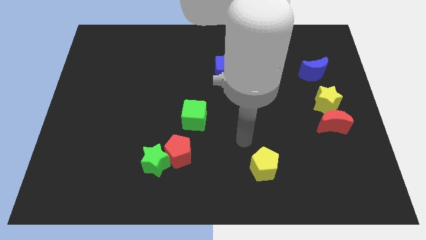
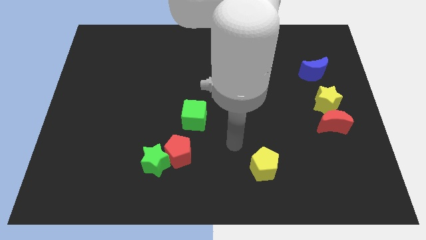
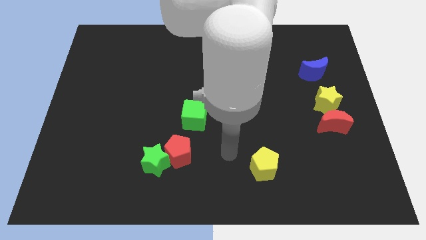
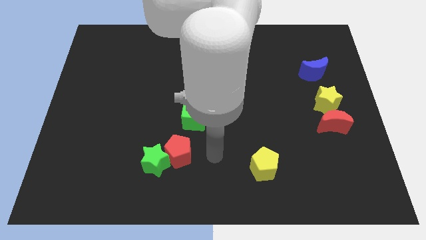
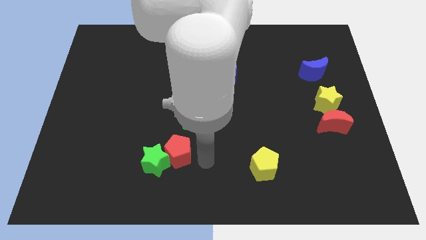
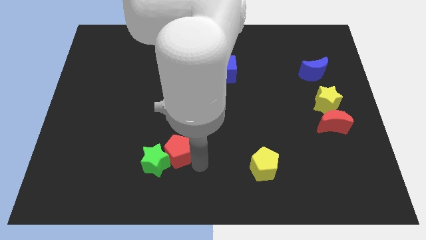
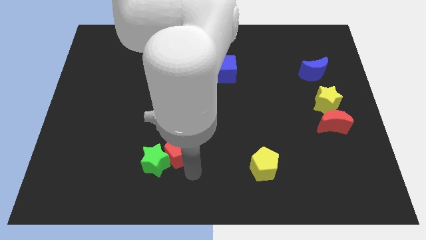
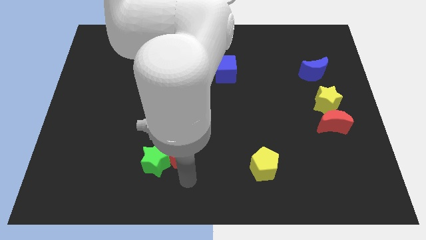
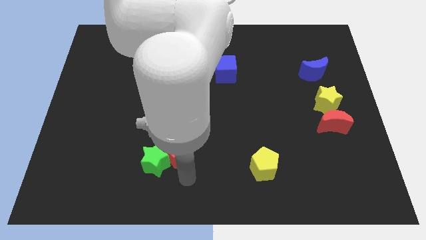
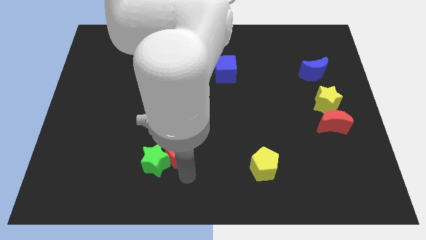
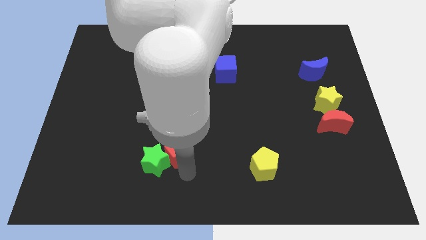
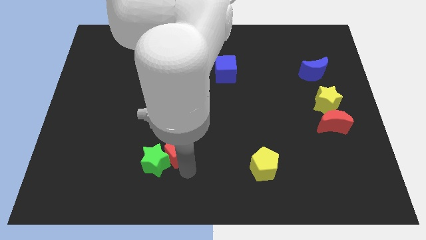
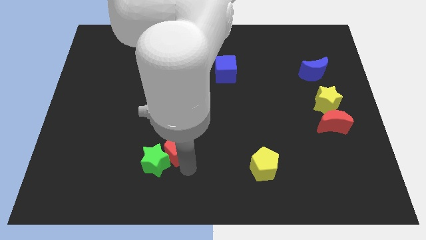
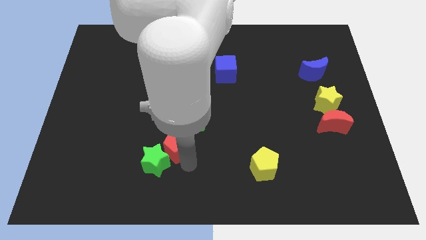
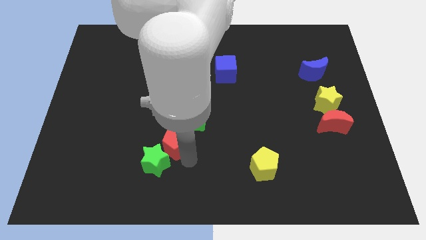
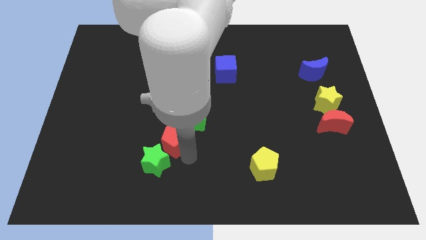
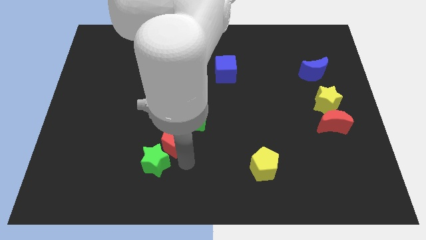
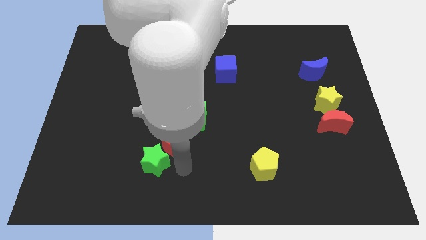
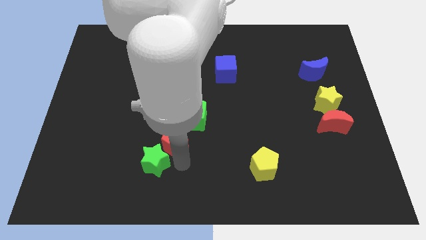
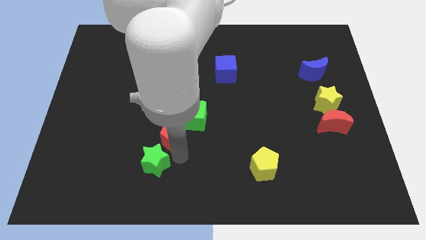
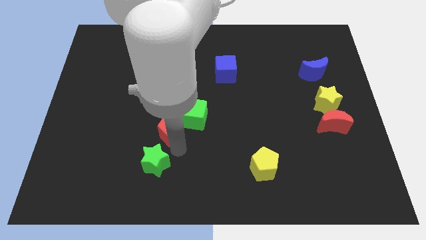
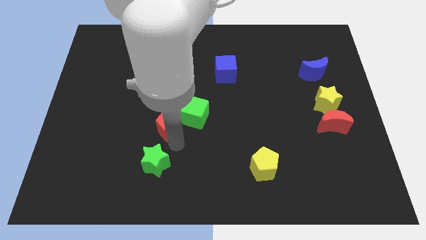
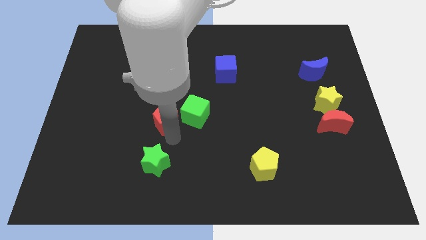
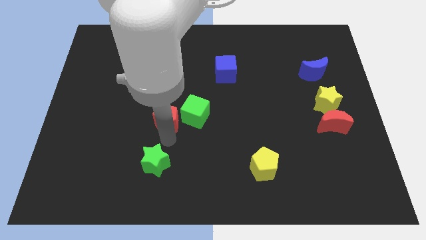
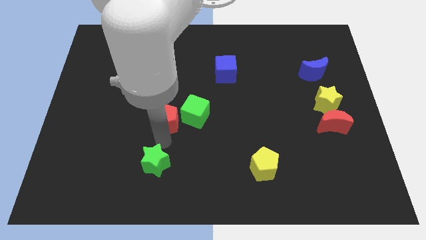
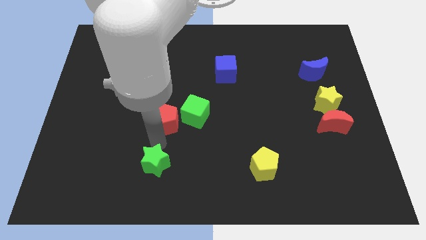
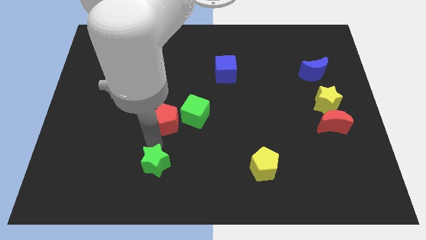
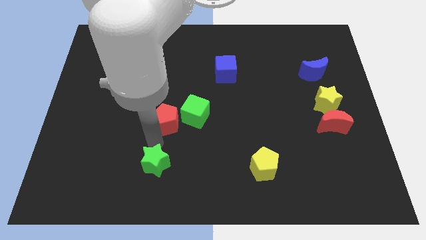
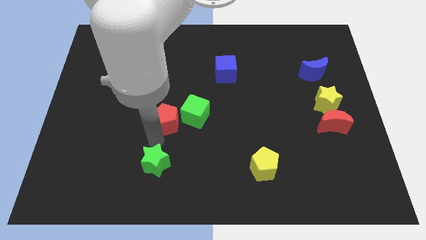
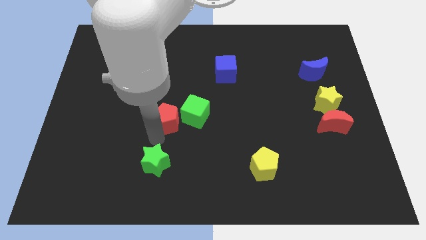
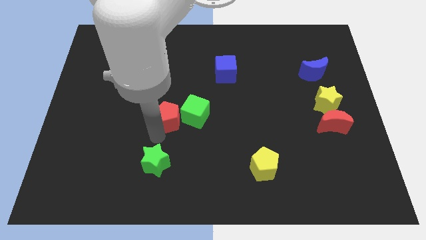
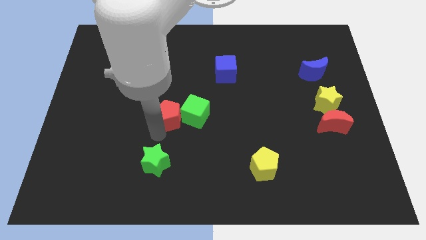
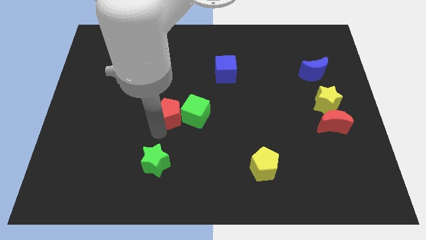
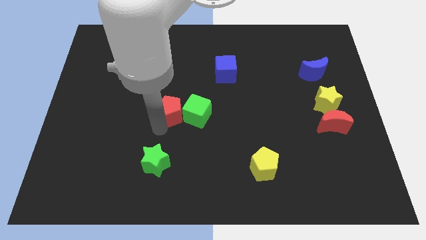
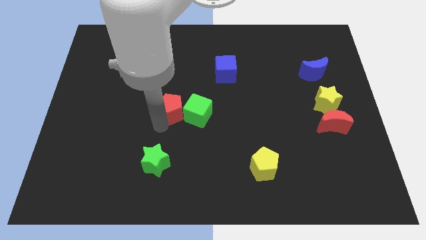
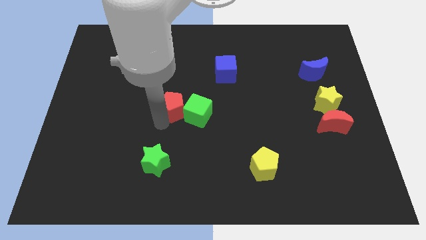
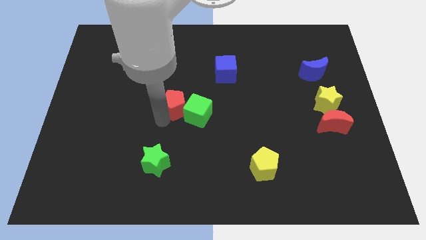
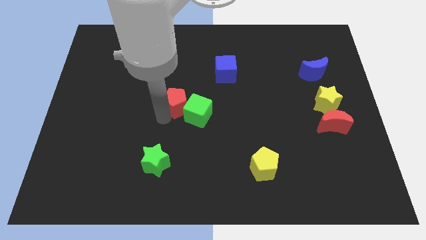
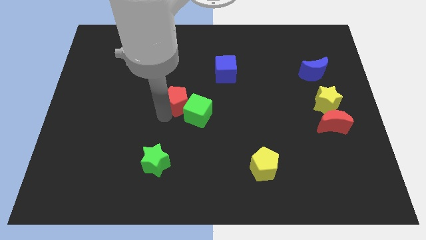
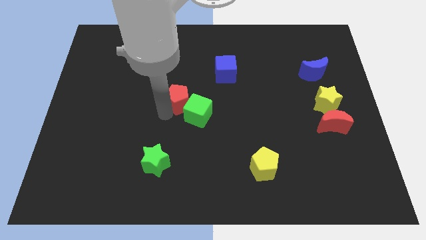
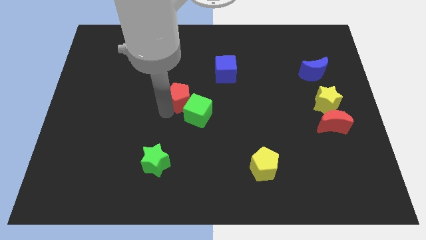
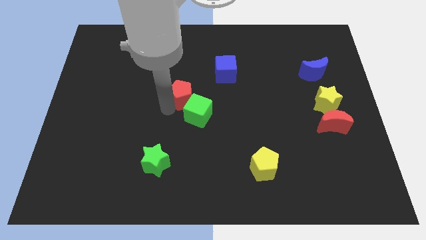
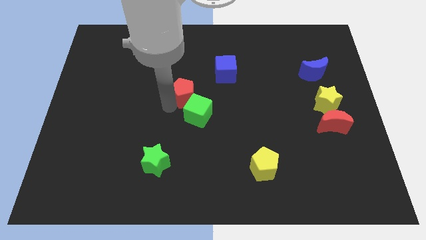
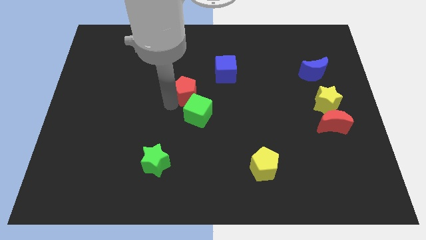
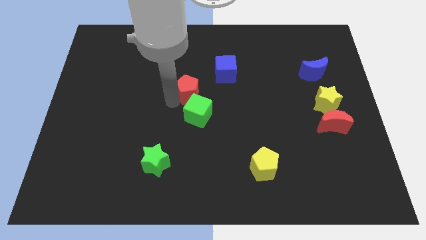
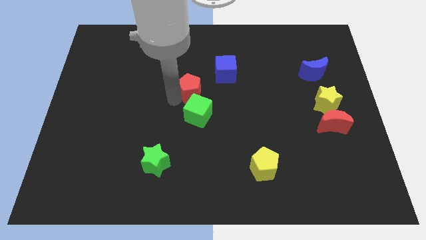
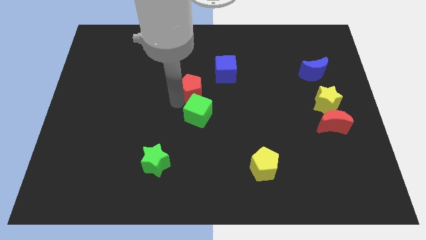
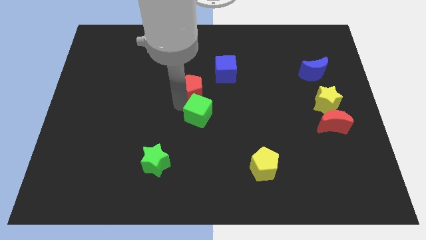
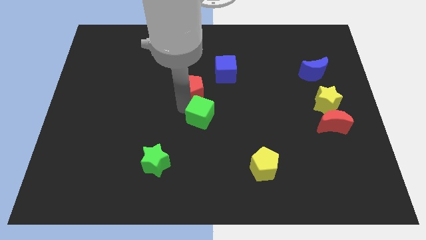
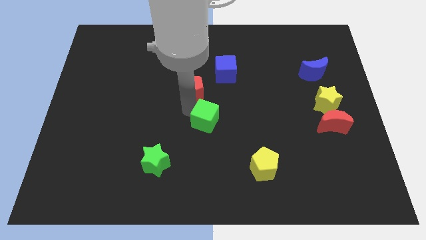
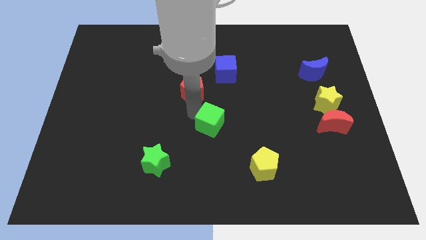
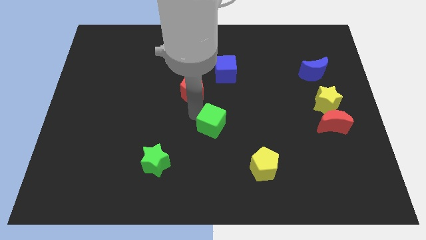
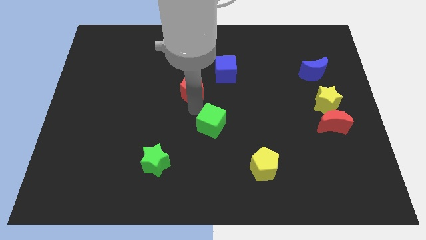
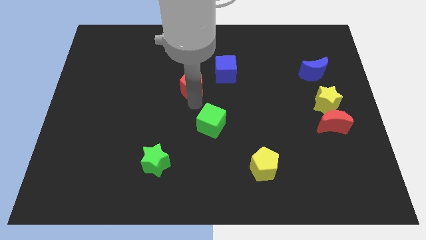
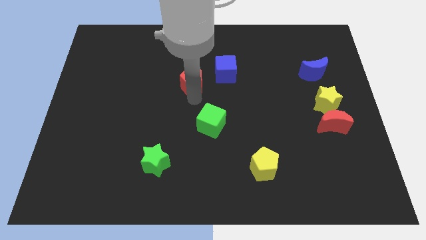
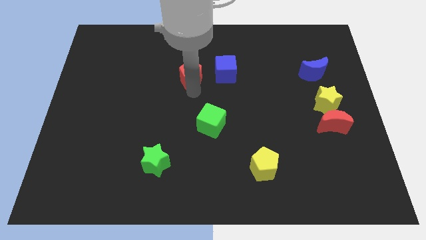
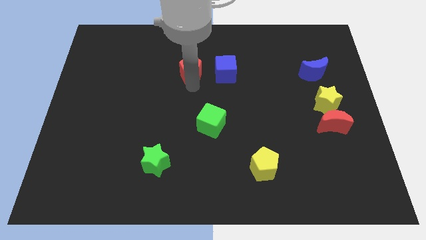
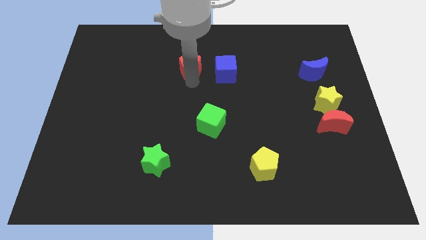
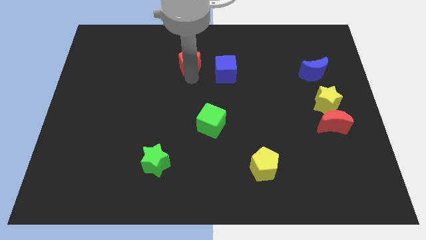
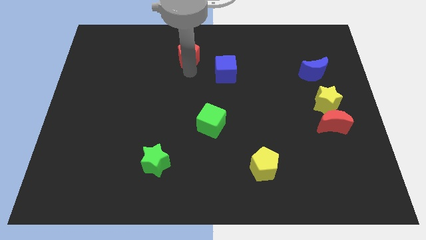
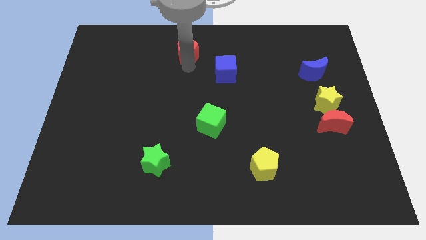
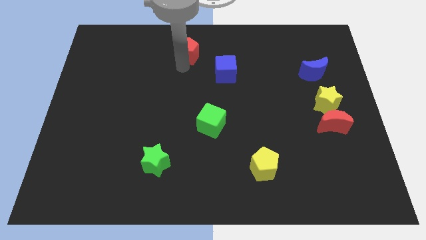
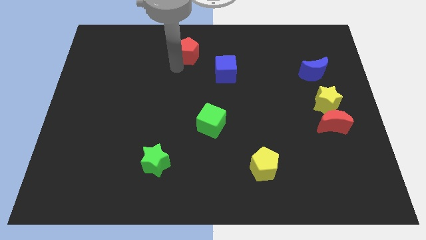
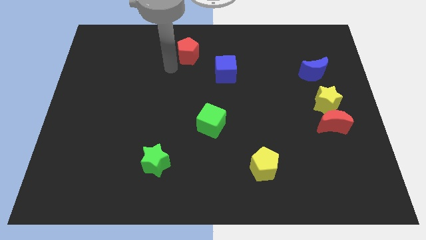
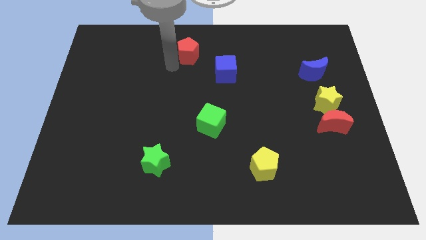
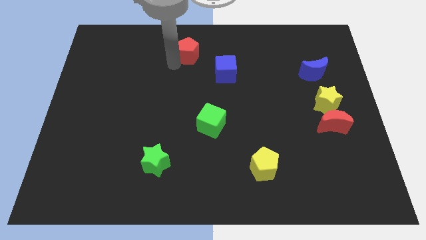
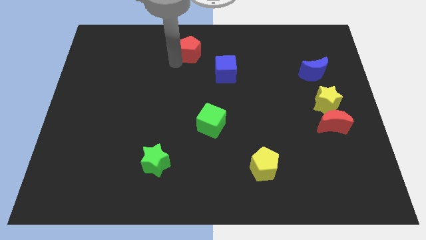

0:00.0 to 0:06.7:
put the red pentagon to the top side
